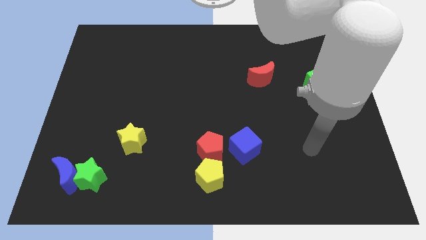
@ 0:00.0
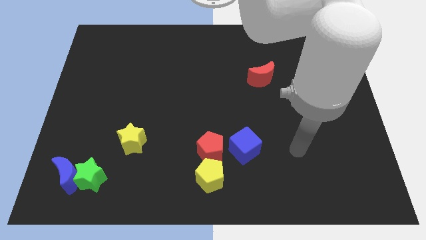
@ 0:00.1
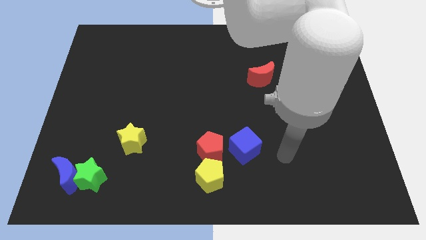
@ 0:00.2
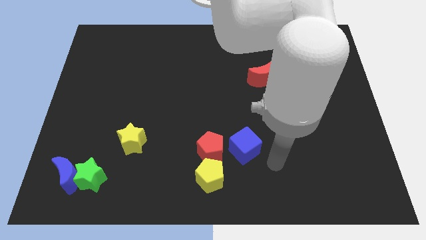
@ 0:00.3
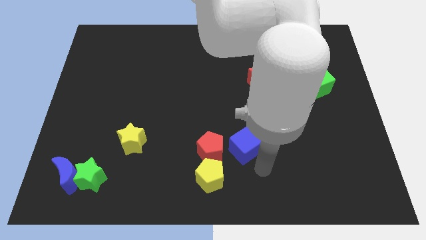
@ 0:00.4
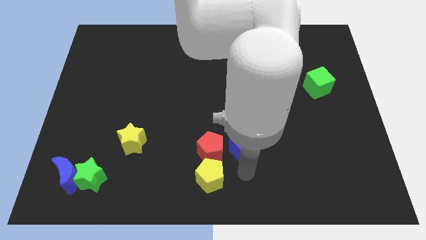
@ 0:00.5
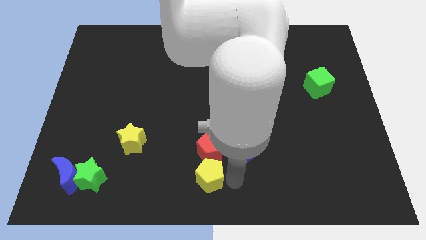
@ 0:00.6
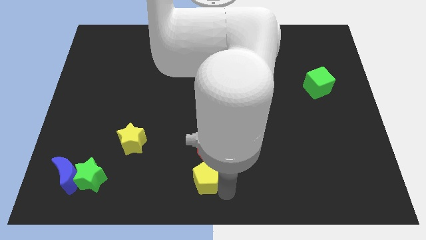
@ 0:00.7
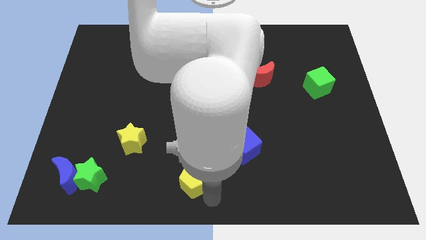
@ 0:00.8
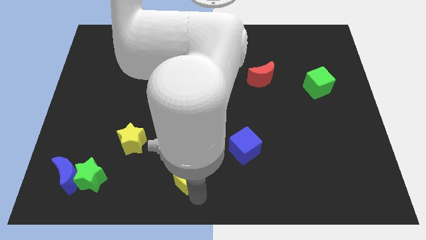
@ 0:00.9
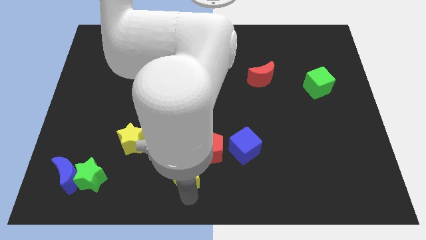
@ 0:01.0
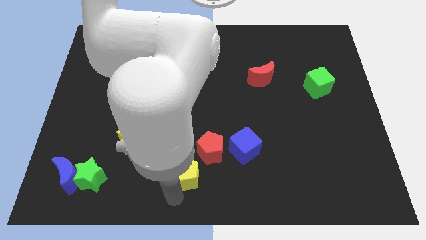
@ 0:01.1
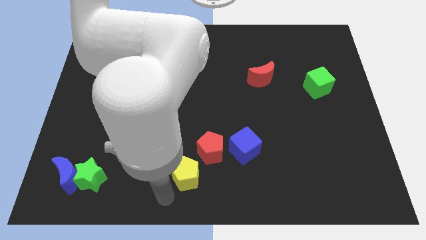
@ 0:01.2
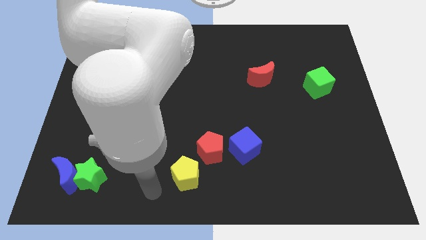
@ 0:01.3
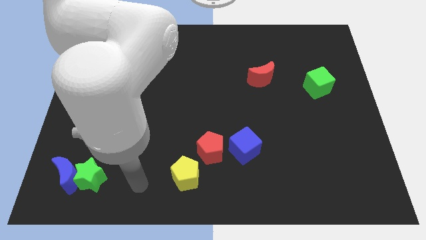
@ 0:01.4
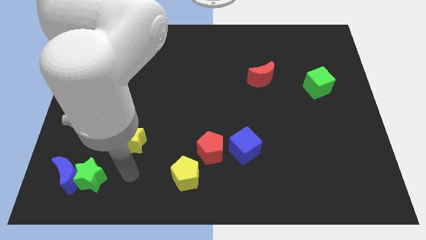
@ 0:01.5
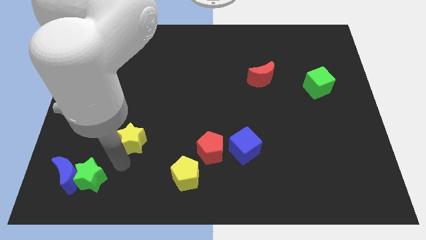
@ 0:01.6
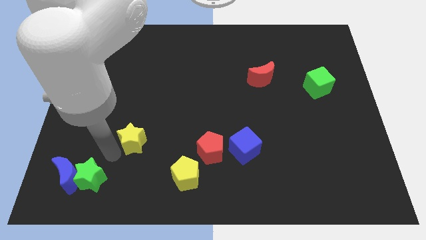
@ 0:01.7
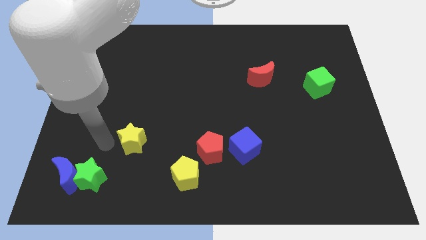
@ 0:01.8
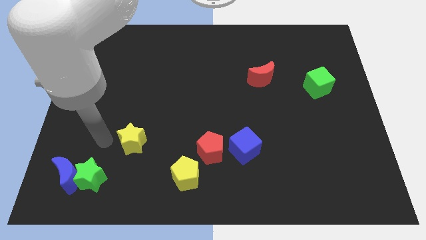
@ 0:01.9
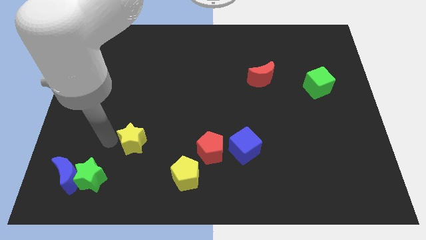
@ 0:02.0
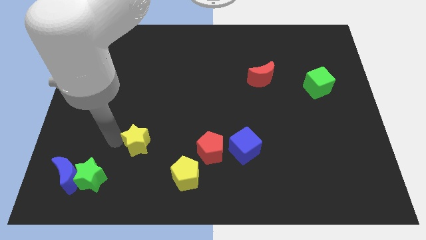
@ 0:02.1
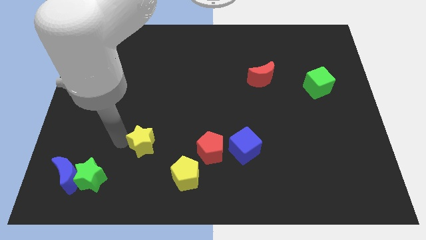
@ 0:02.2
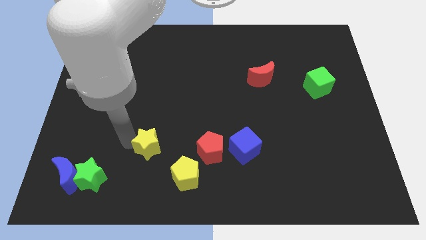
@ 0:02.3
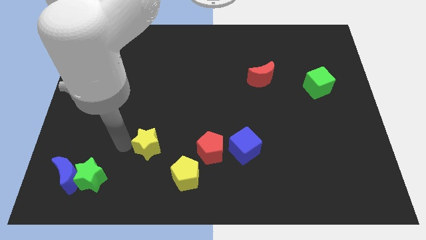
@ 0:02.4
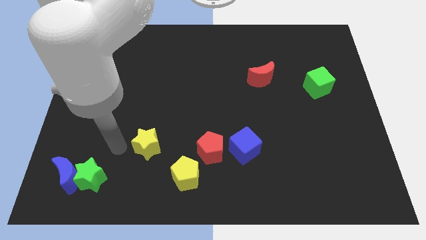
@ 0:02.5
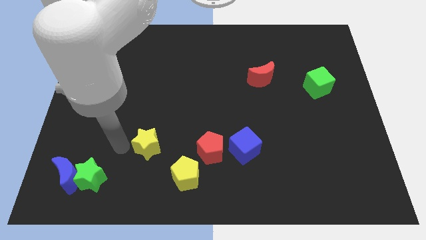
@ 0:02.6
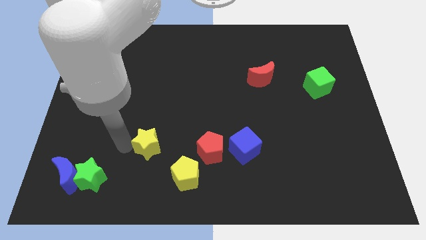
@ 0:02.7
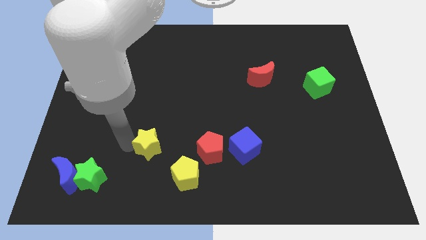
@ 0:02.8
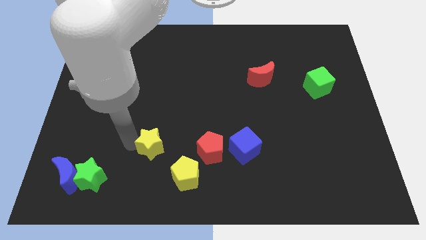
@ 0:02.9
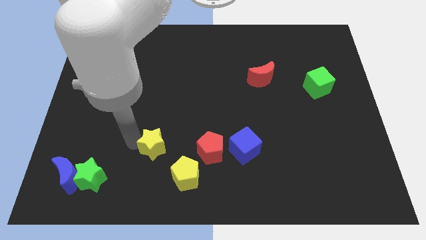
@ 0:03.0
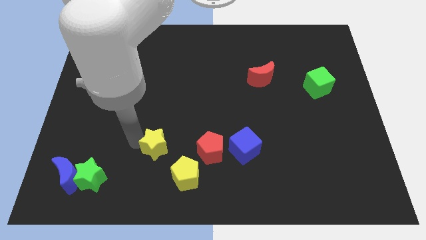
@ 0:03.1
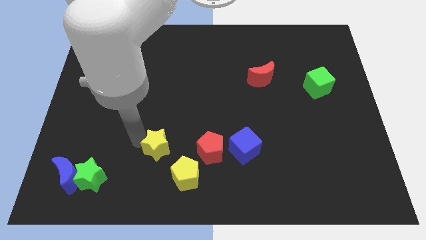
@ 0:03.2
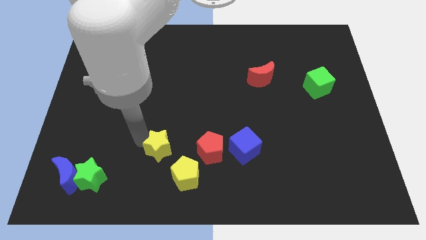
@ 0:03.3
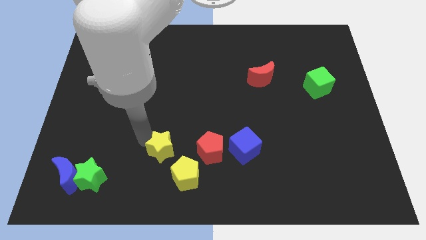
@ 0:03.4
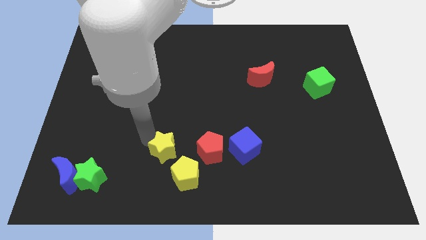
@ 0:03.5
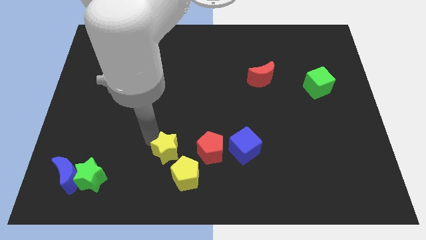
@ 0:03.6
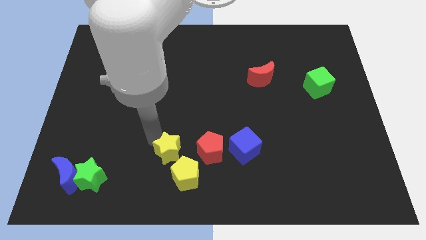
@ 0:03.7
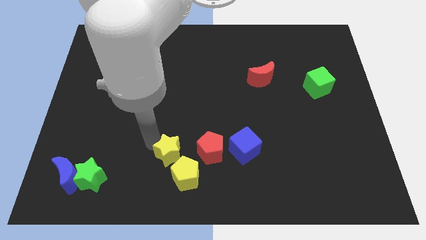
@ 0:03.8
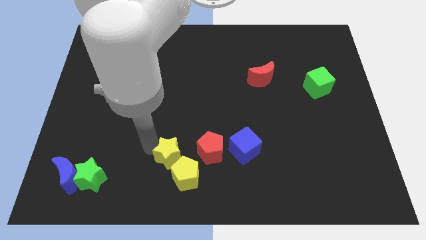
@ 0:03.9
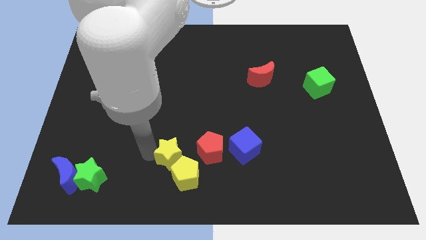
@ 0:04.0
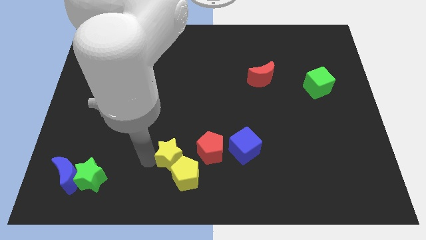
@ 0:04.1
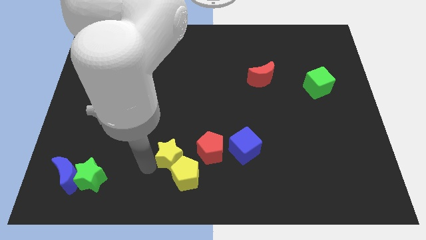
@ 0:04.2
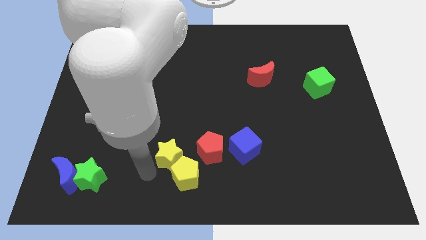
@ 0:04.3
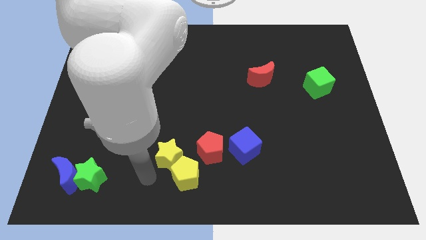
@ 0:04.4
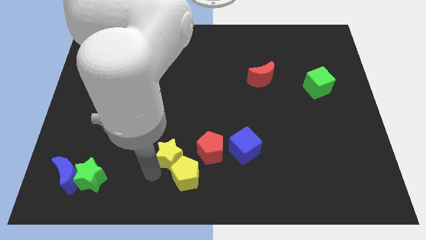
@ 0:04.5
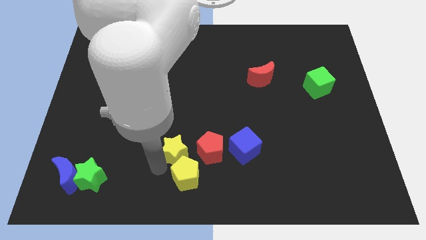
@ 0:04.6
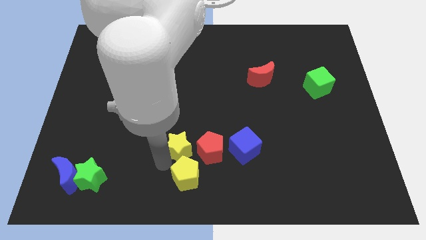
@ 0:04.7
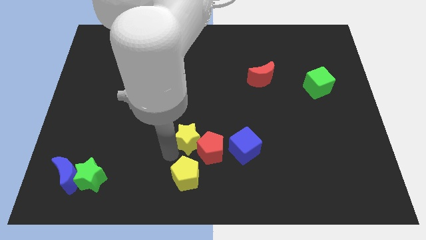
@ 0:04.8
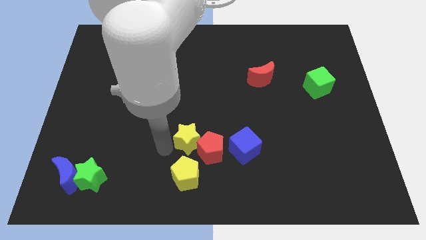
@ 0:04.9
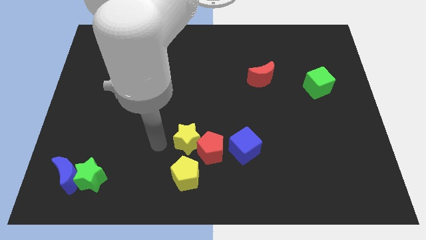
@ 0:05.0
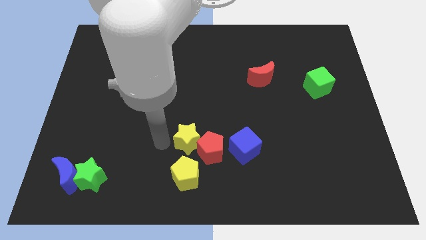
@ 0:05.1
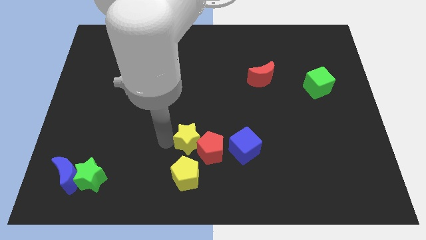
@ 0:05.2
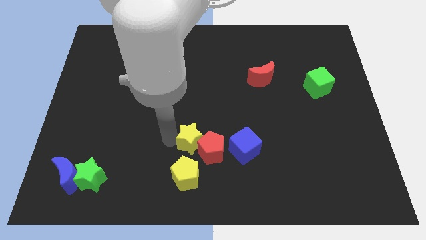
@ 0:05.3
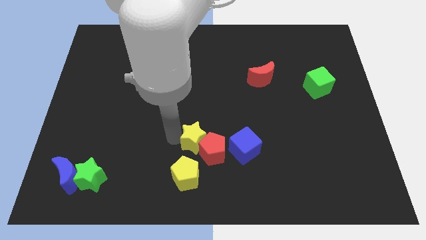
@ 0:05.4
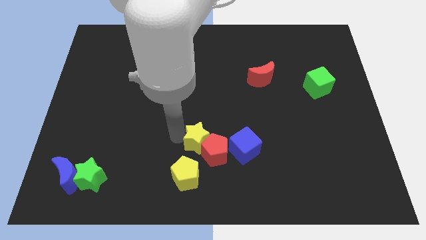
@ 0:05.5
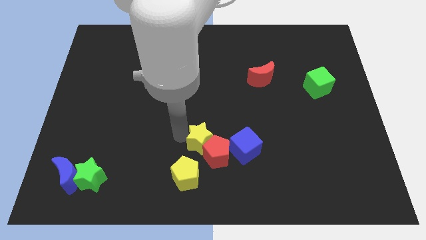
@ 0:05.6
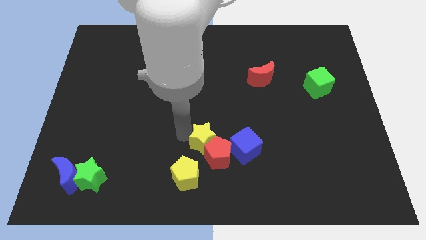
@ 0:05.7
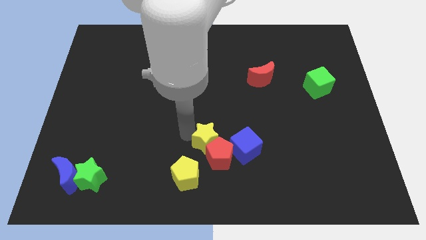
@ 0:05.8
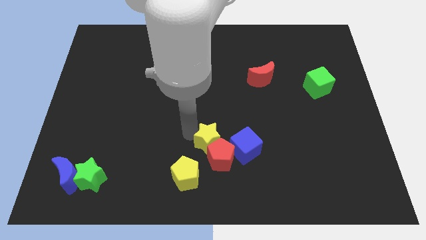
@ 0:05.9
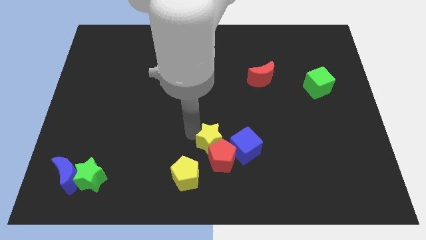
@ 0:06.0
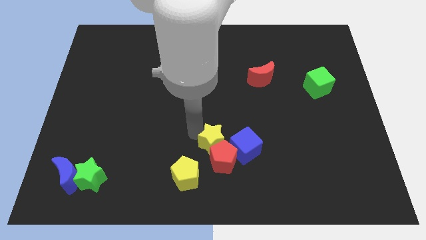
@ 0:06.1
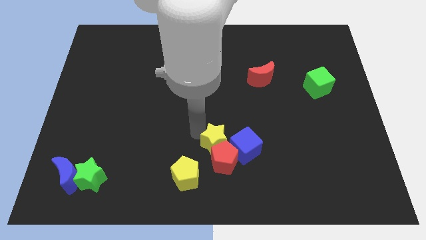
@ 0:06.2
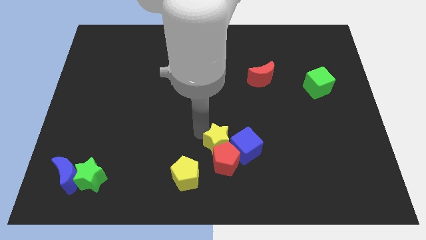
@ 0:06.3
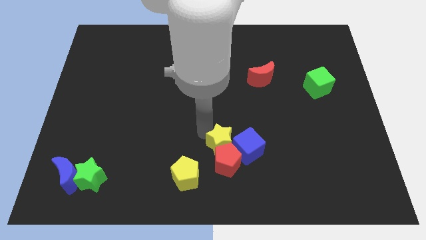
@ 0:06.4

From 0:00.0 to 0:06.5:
slide the yellow star next to the blue cube
